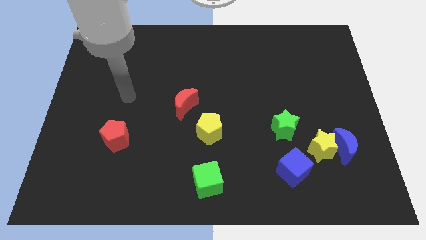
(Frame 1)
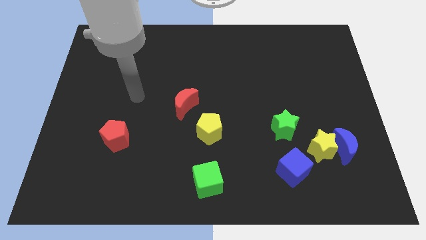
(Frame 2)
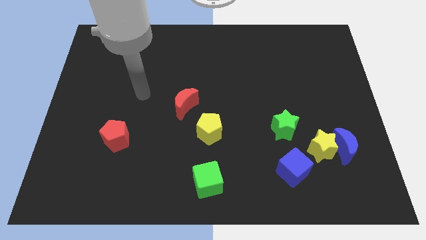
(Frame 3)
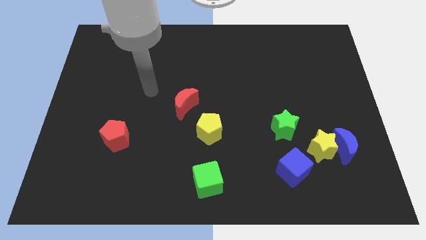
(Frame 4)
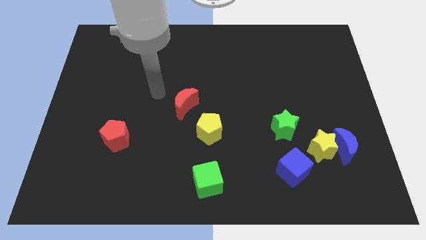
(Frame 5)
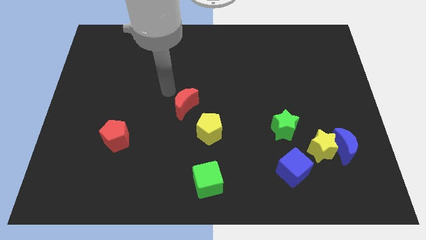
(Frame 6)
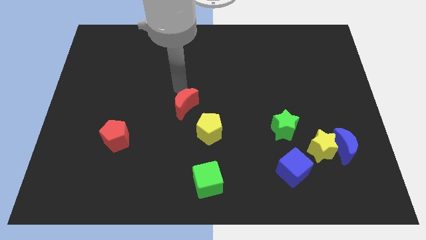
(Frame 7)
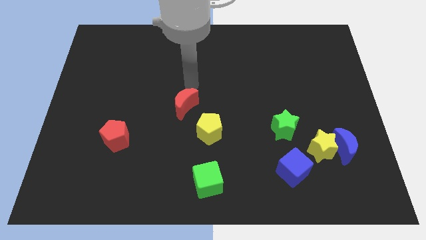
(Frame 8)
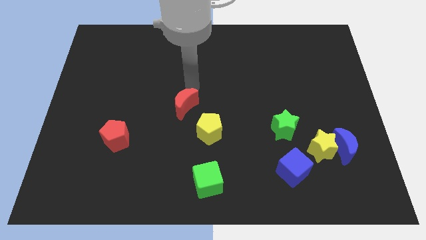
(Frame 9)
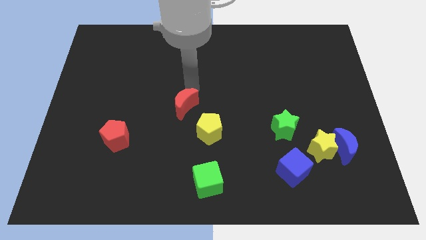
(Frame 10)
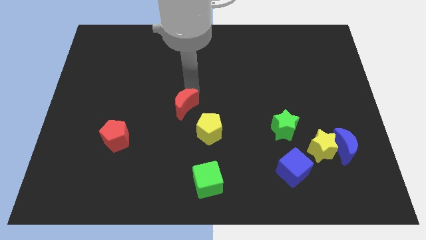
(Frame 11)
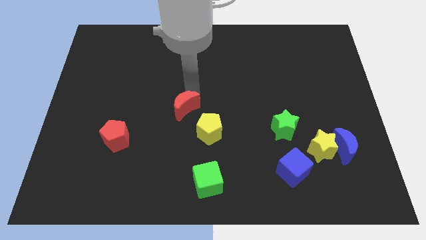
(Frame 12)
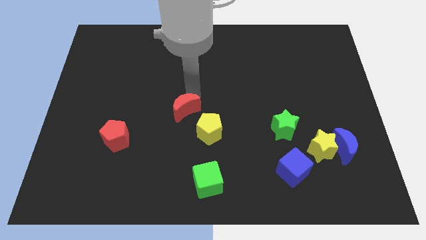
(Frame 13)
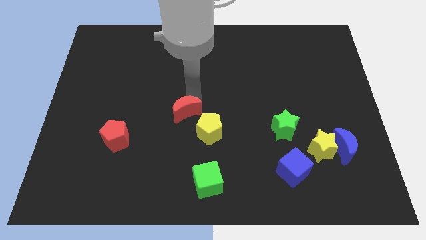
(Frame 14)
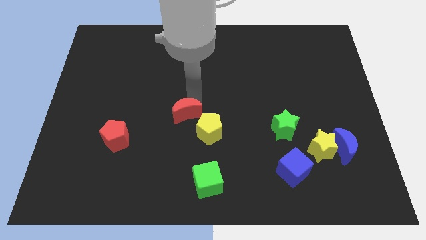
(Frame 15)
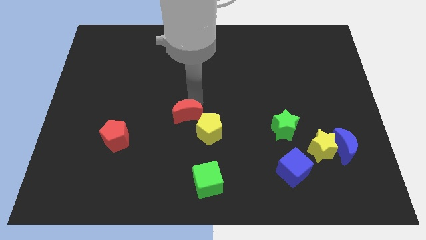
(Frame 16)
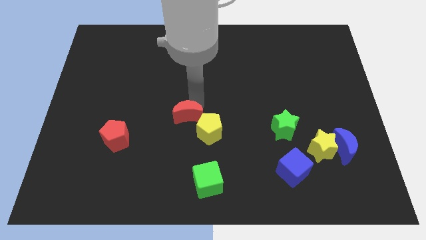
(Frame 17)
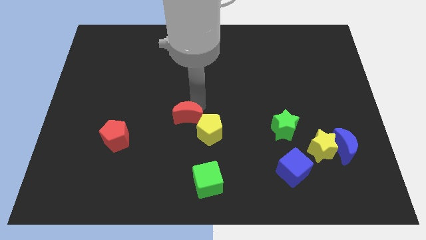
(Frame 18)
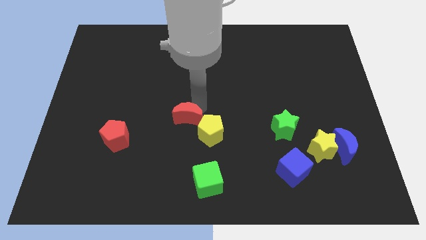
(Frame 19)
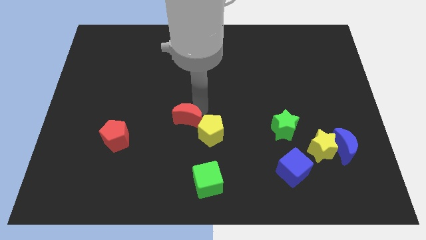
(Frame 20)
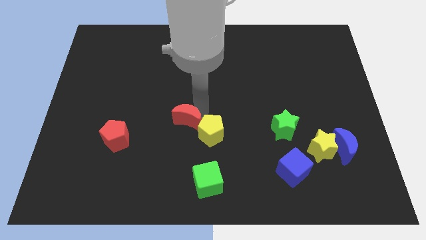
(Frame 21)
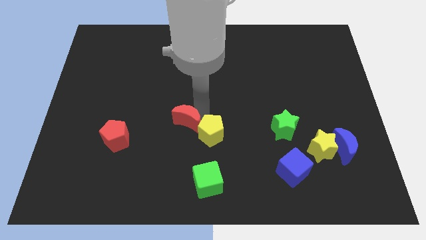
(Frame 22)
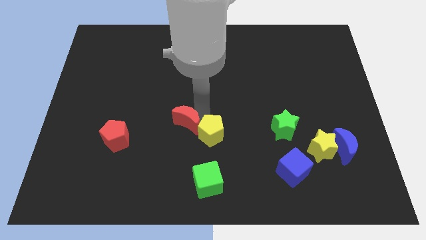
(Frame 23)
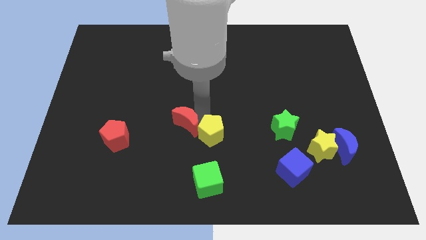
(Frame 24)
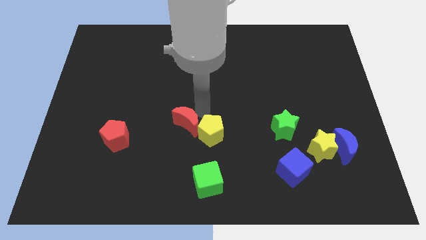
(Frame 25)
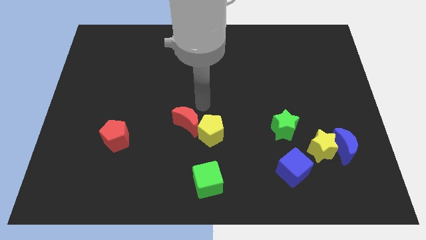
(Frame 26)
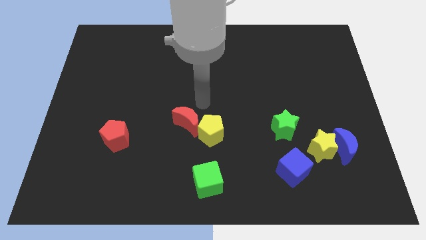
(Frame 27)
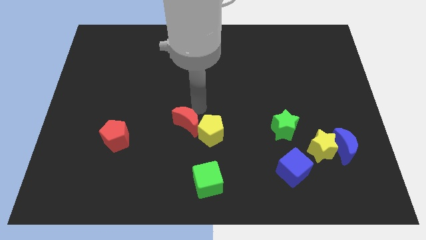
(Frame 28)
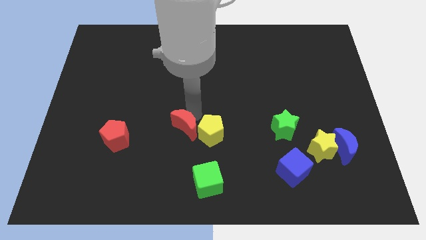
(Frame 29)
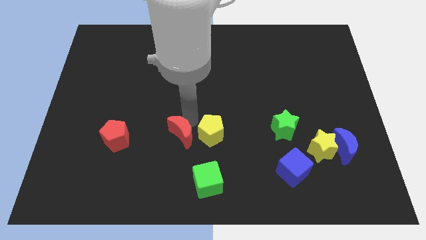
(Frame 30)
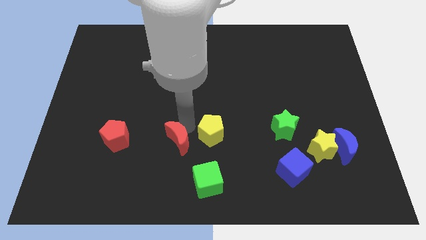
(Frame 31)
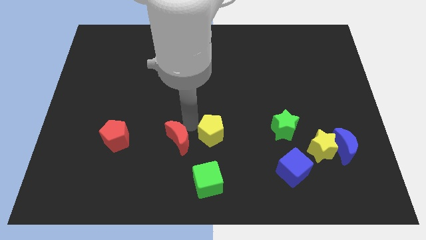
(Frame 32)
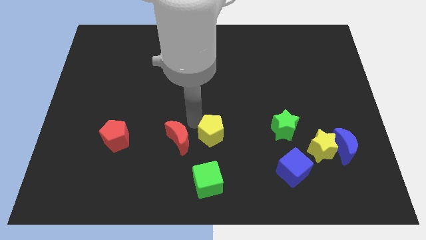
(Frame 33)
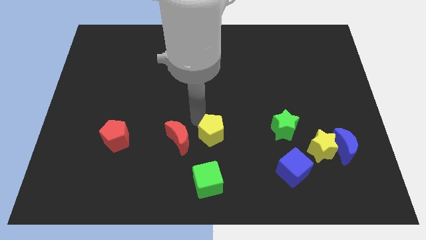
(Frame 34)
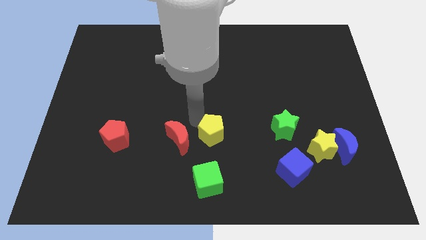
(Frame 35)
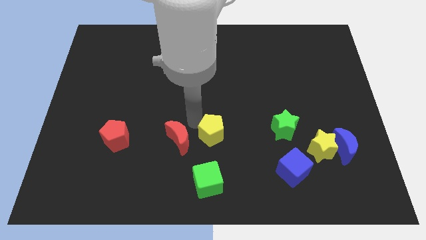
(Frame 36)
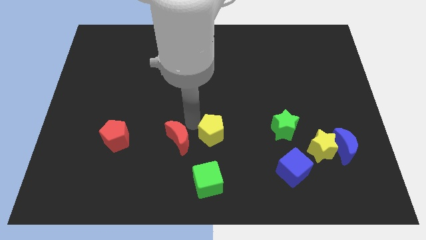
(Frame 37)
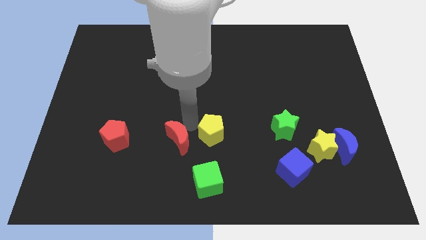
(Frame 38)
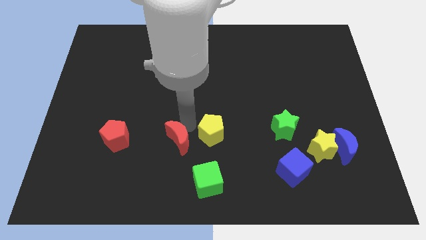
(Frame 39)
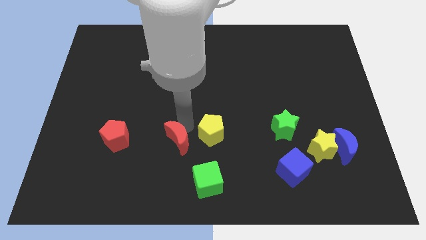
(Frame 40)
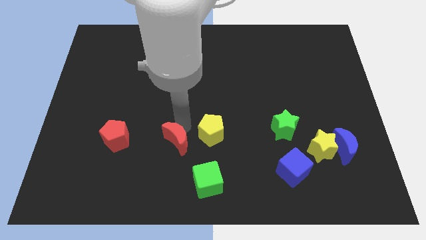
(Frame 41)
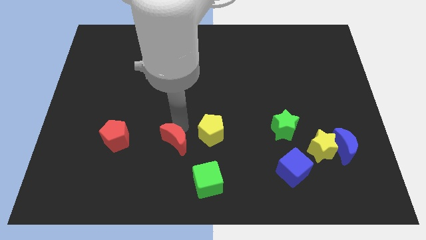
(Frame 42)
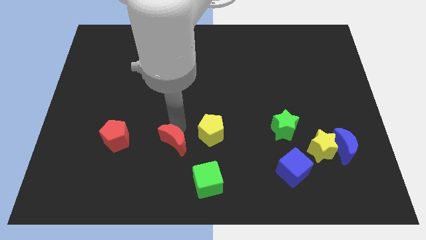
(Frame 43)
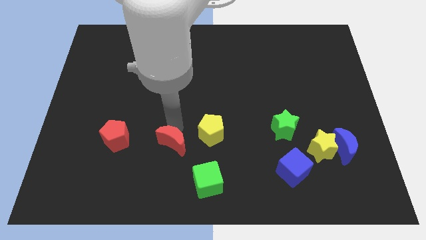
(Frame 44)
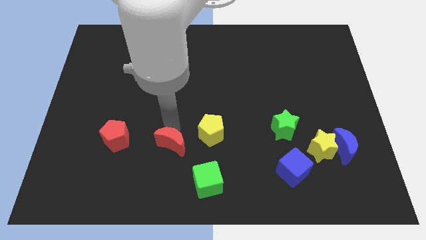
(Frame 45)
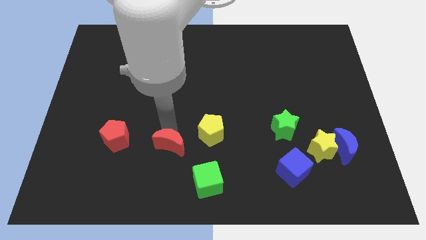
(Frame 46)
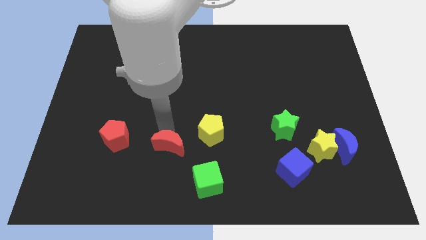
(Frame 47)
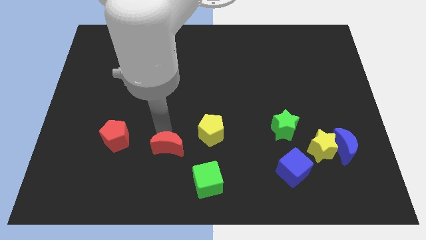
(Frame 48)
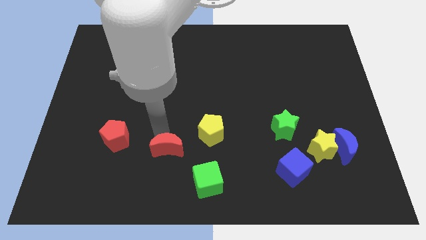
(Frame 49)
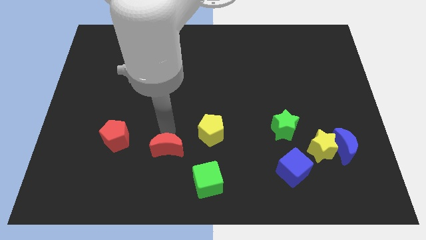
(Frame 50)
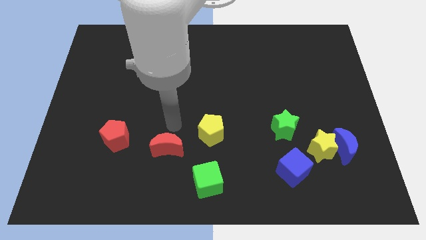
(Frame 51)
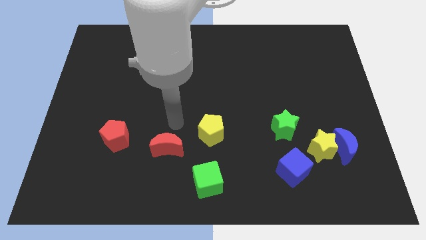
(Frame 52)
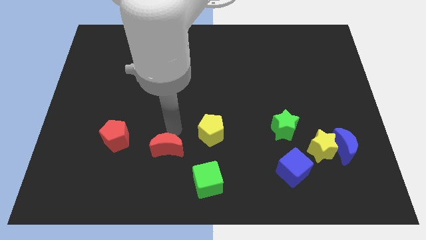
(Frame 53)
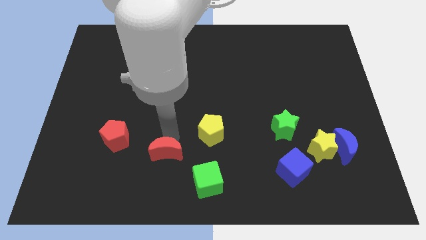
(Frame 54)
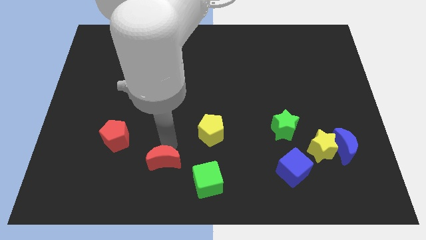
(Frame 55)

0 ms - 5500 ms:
push the red moon just left of the green cube

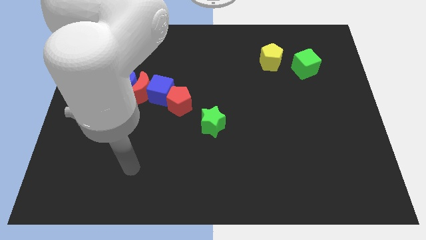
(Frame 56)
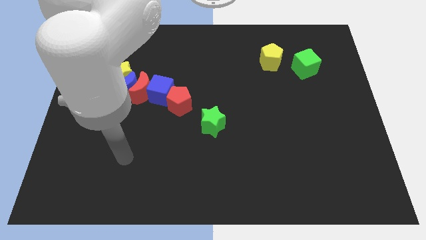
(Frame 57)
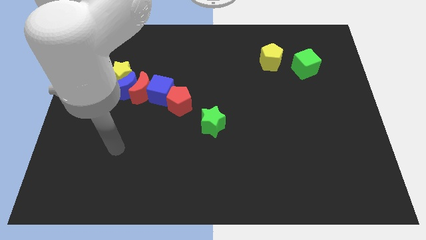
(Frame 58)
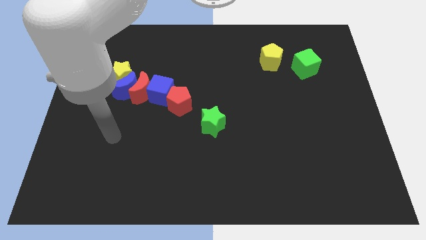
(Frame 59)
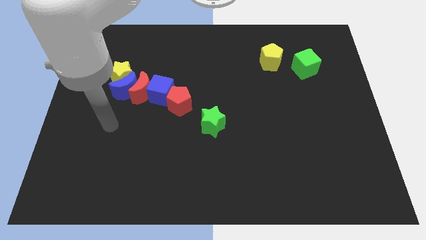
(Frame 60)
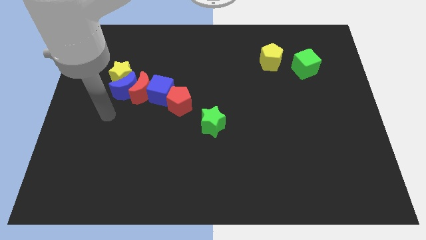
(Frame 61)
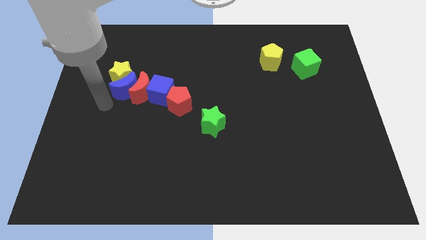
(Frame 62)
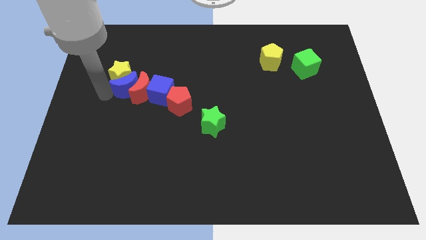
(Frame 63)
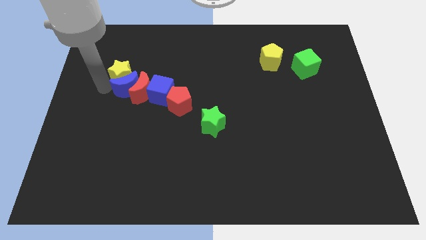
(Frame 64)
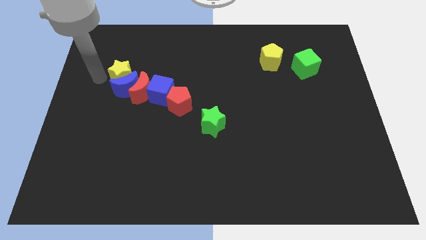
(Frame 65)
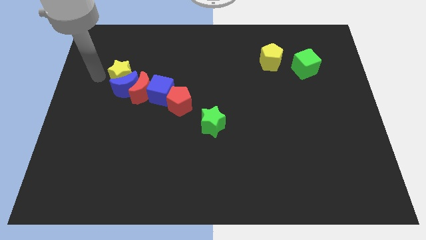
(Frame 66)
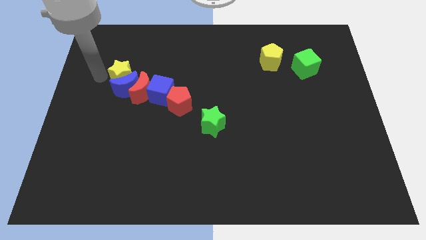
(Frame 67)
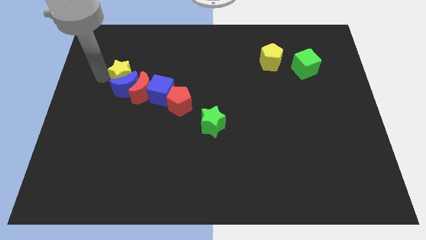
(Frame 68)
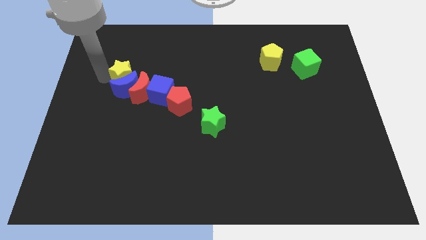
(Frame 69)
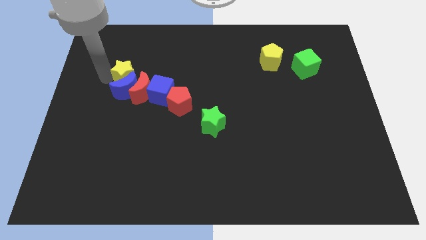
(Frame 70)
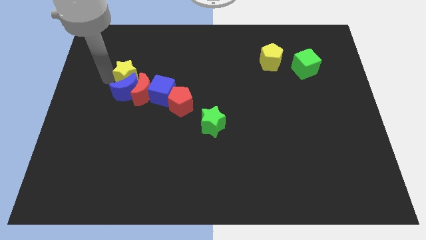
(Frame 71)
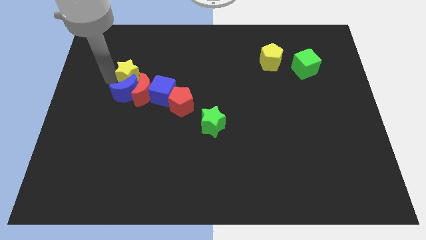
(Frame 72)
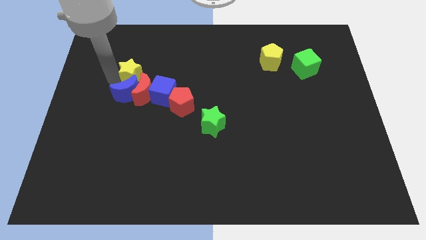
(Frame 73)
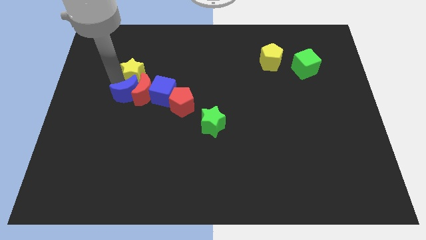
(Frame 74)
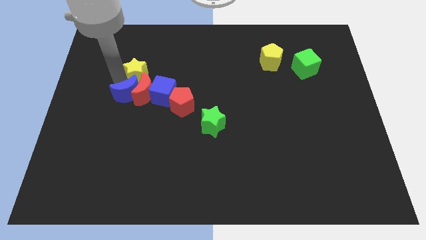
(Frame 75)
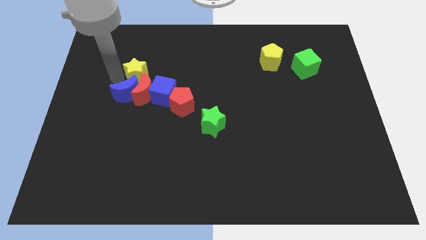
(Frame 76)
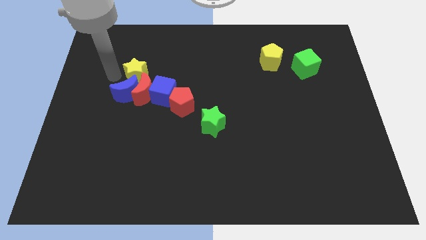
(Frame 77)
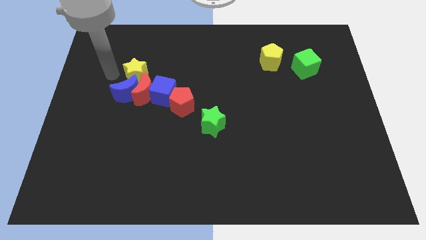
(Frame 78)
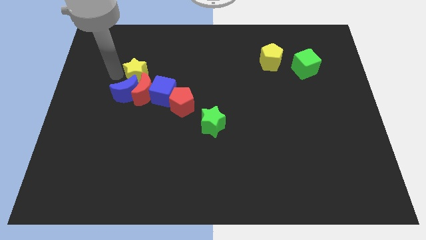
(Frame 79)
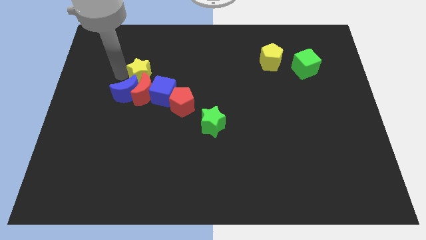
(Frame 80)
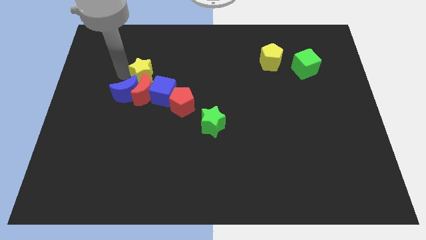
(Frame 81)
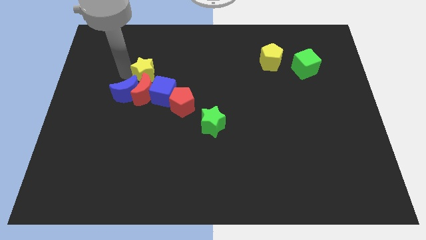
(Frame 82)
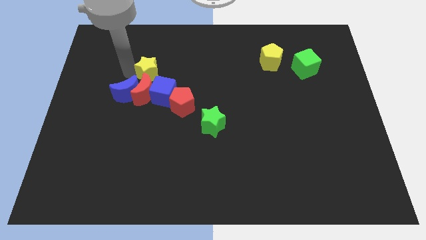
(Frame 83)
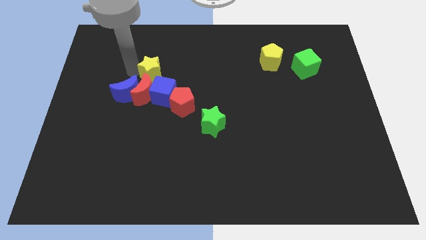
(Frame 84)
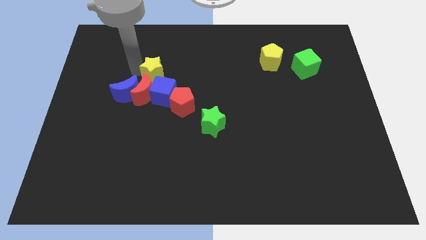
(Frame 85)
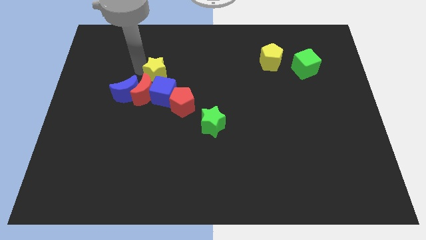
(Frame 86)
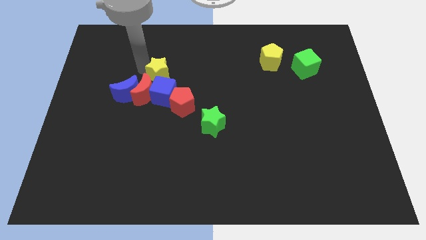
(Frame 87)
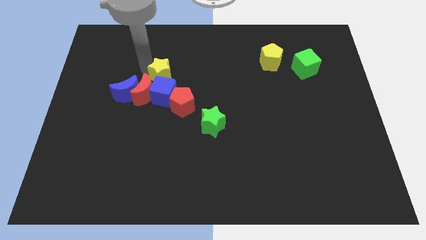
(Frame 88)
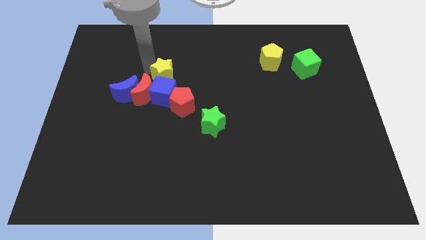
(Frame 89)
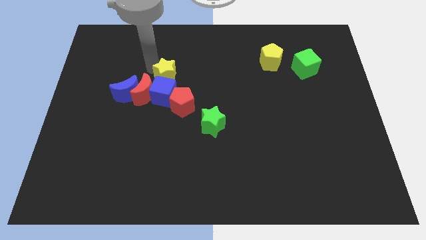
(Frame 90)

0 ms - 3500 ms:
push the yellow star to the top of the red pentagon
